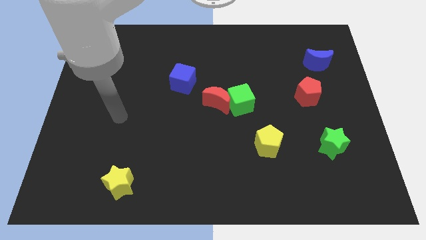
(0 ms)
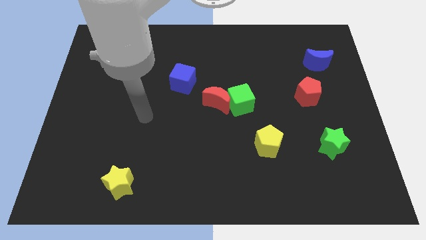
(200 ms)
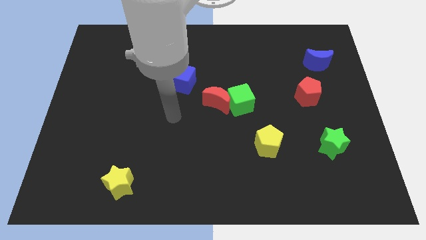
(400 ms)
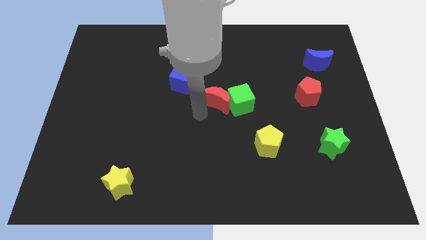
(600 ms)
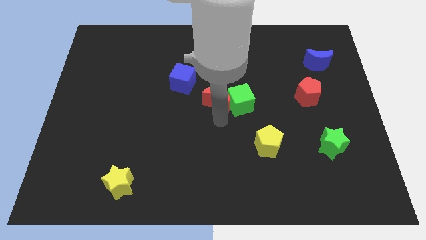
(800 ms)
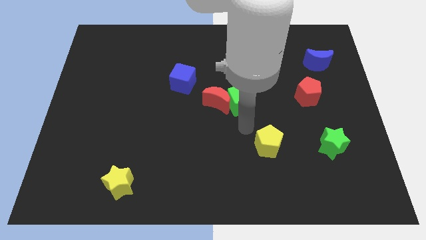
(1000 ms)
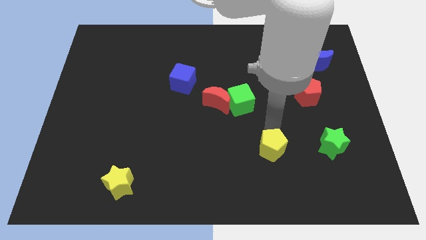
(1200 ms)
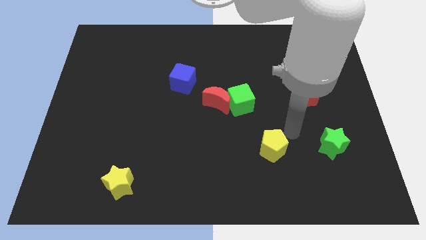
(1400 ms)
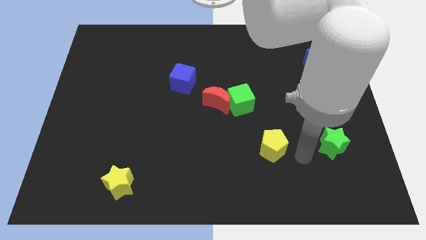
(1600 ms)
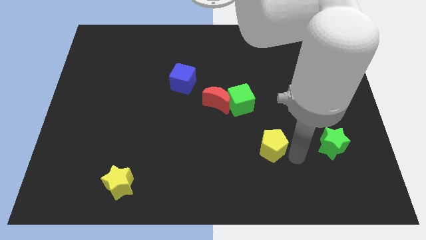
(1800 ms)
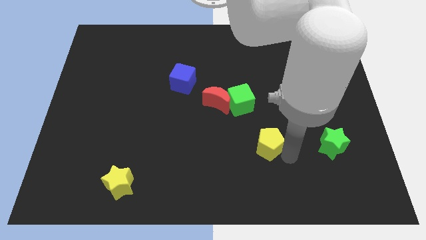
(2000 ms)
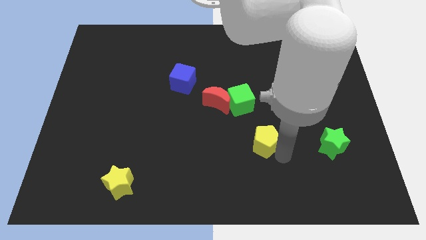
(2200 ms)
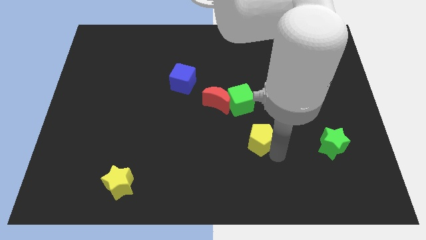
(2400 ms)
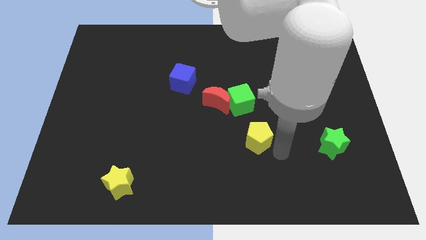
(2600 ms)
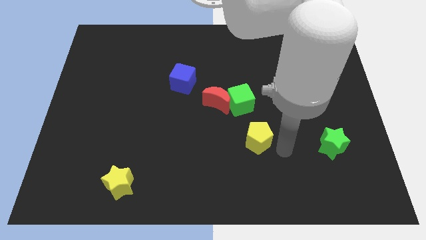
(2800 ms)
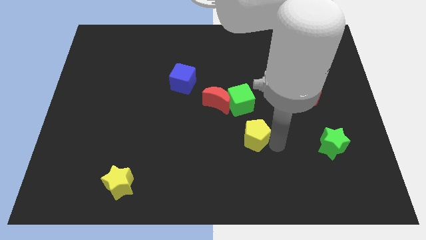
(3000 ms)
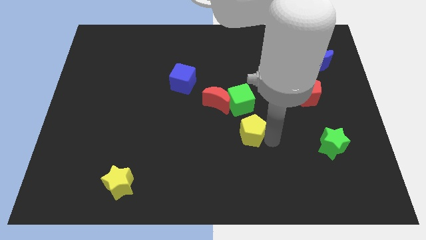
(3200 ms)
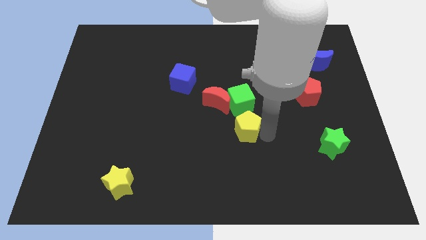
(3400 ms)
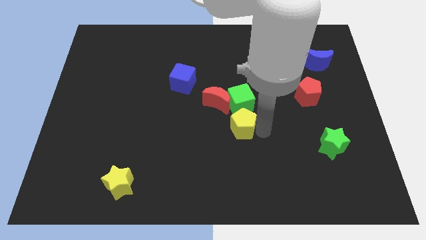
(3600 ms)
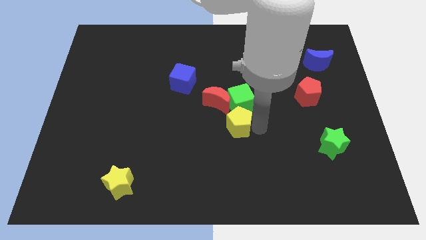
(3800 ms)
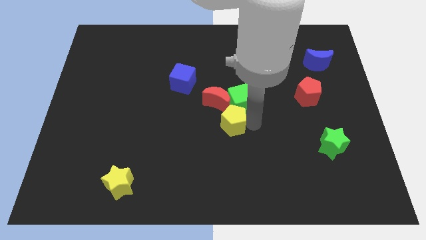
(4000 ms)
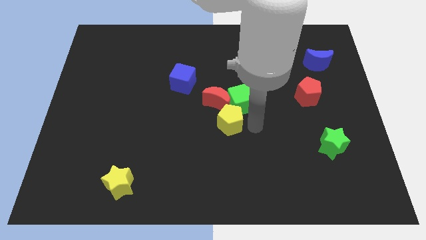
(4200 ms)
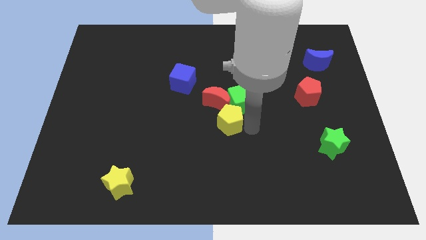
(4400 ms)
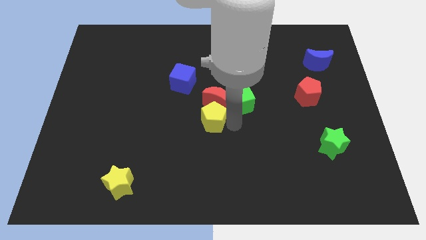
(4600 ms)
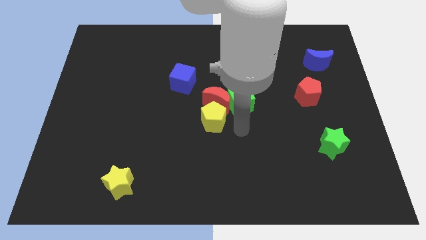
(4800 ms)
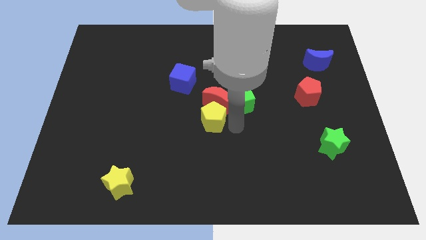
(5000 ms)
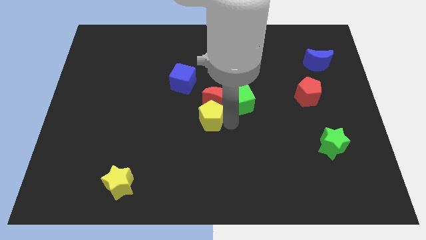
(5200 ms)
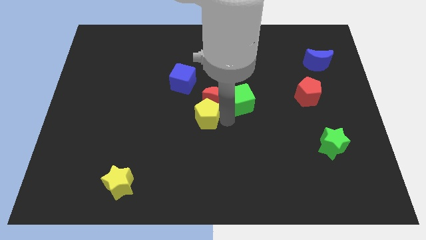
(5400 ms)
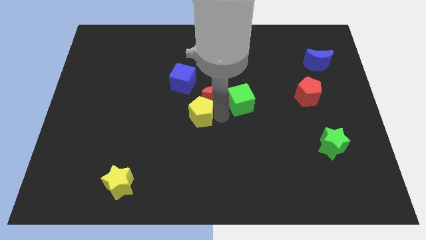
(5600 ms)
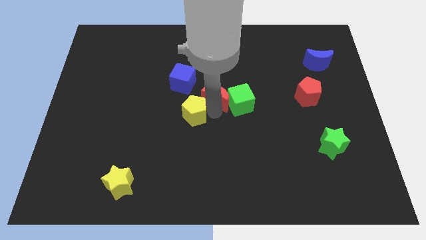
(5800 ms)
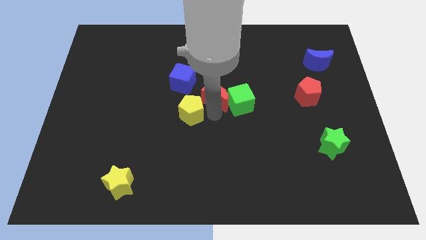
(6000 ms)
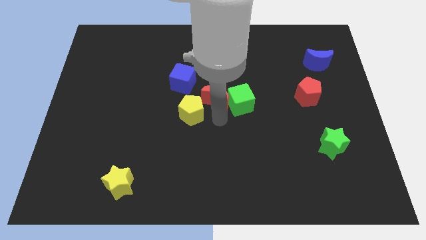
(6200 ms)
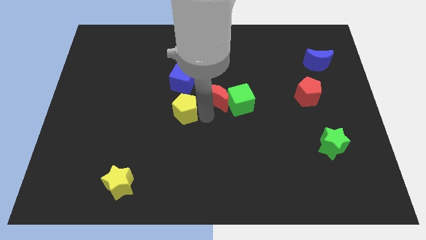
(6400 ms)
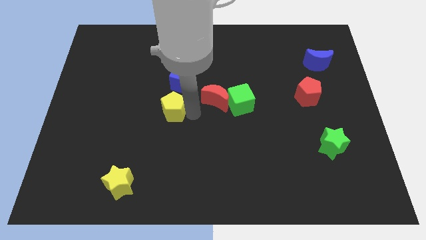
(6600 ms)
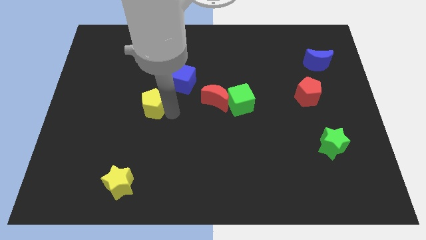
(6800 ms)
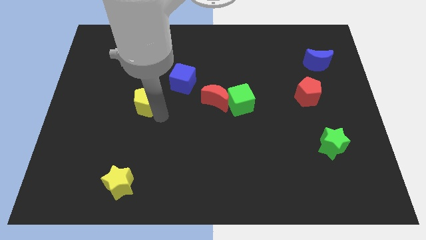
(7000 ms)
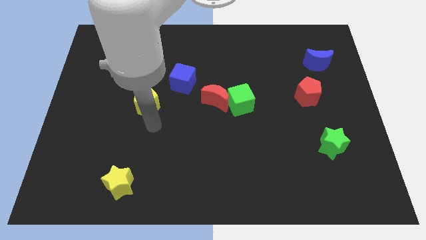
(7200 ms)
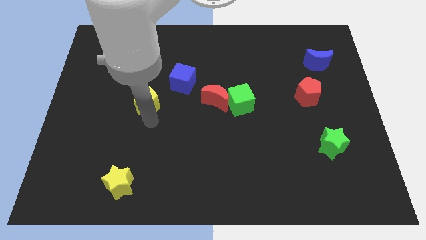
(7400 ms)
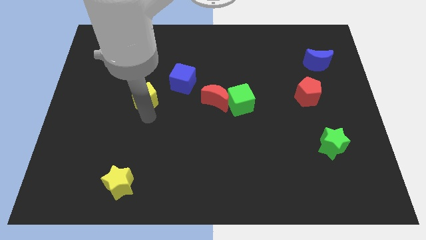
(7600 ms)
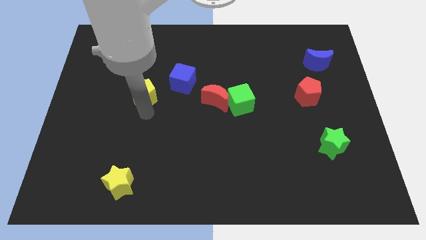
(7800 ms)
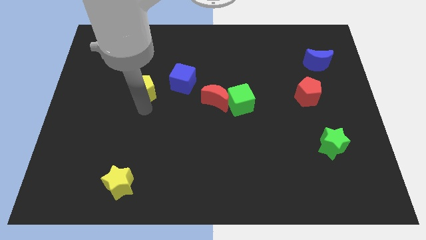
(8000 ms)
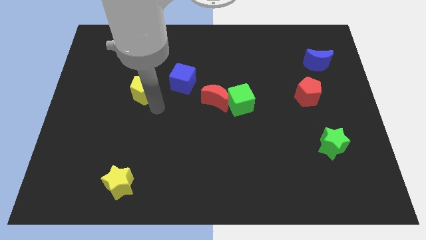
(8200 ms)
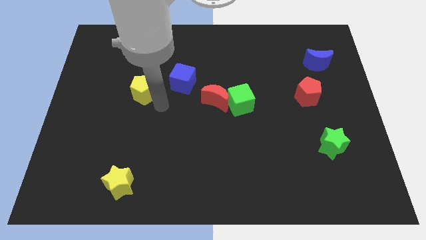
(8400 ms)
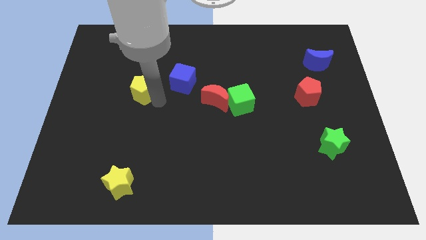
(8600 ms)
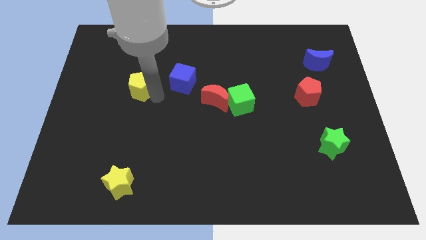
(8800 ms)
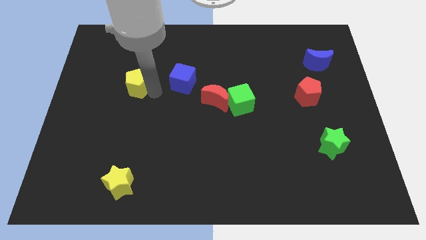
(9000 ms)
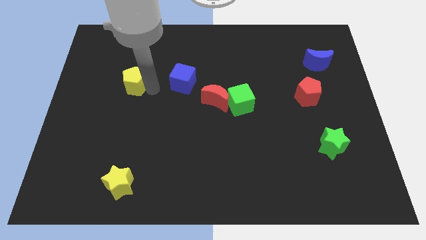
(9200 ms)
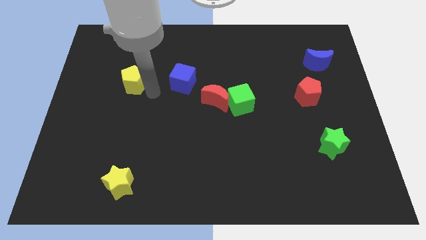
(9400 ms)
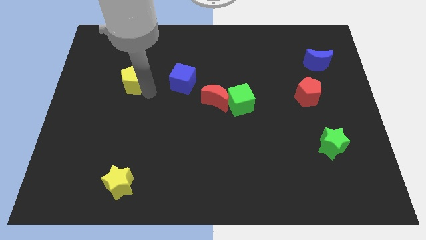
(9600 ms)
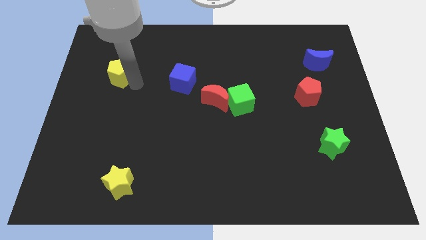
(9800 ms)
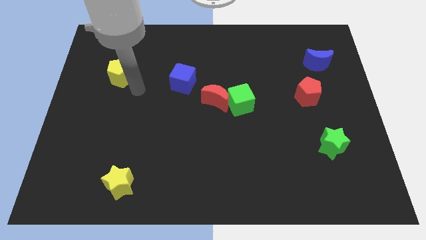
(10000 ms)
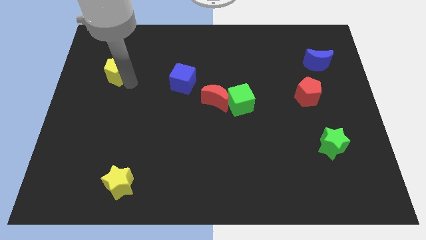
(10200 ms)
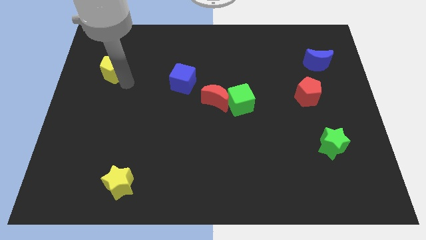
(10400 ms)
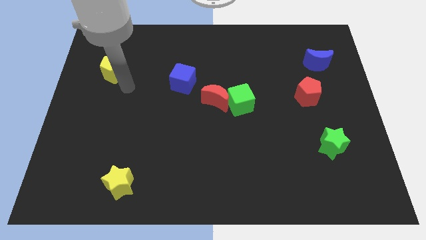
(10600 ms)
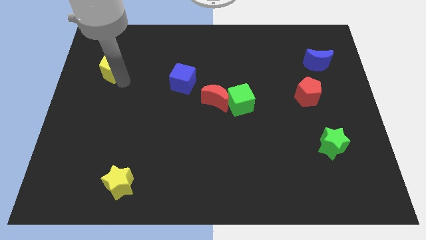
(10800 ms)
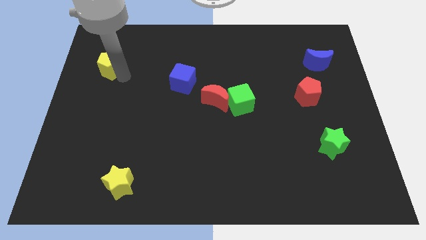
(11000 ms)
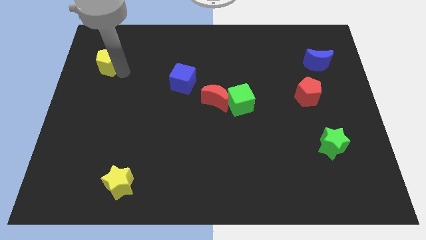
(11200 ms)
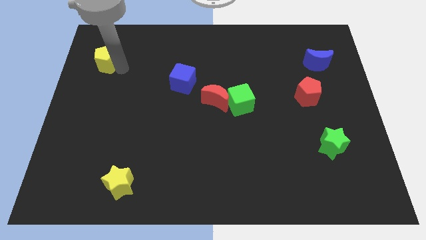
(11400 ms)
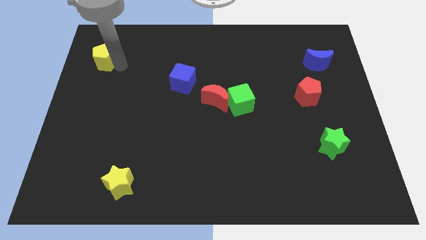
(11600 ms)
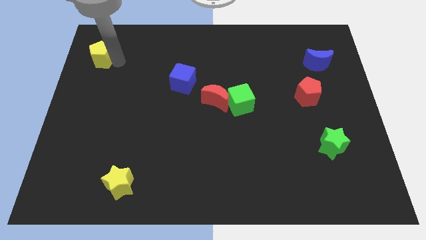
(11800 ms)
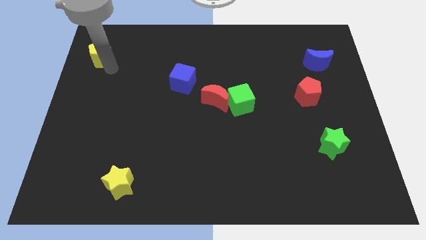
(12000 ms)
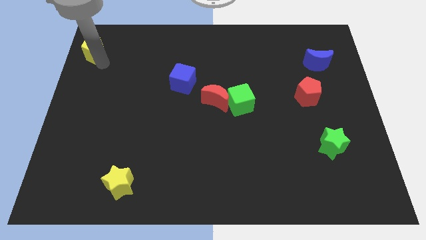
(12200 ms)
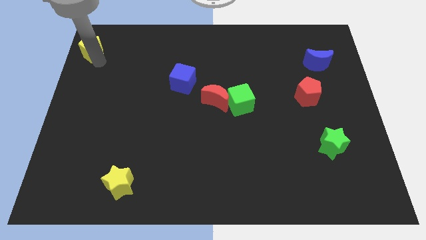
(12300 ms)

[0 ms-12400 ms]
put the yellow pentagon to the top left corner

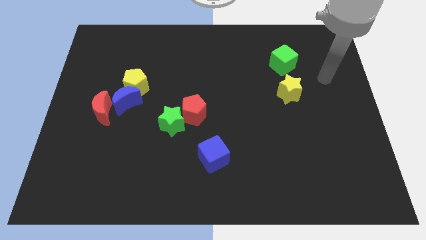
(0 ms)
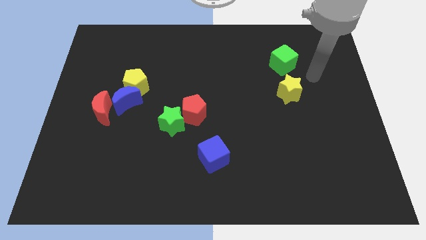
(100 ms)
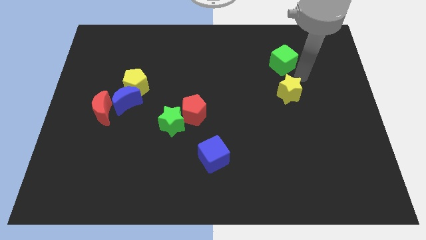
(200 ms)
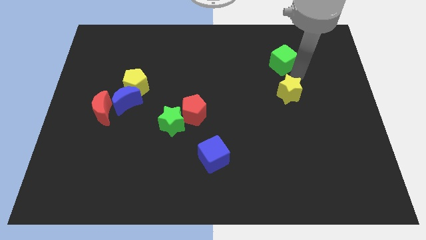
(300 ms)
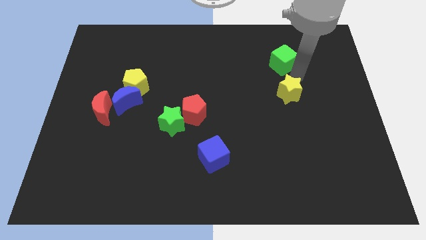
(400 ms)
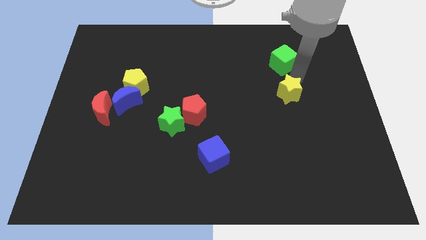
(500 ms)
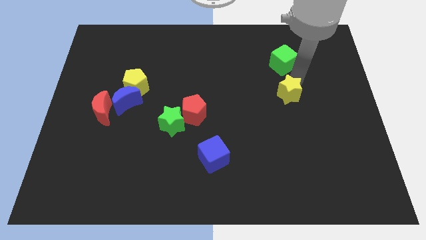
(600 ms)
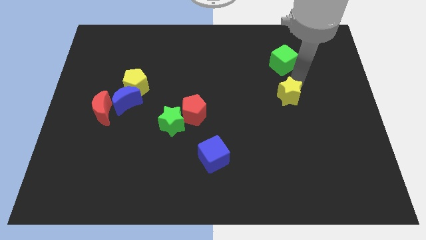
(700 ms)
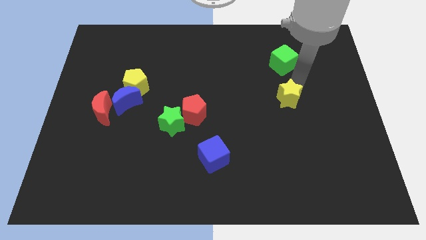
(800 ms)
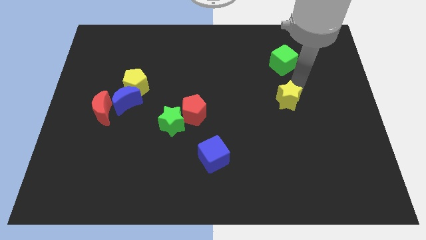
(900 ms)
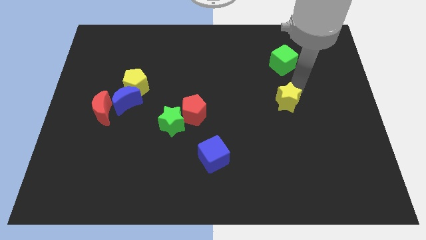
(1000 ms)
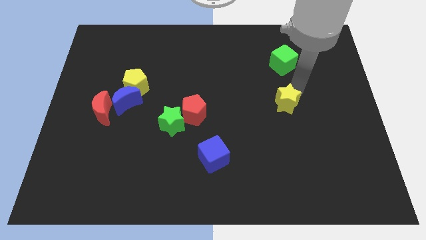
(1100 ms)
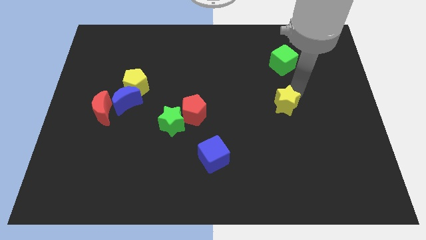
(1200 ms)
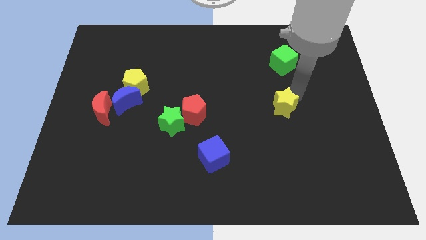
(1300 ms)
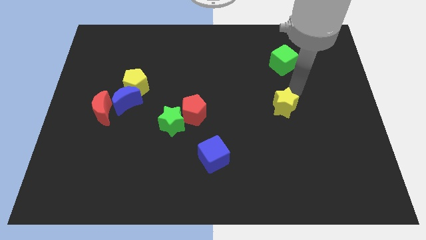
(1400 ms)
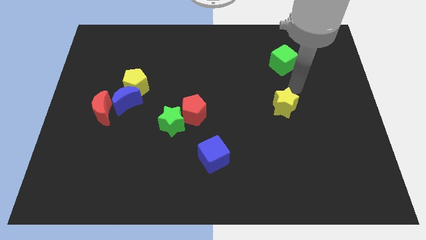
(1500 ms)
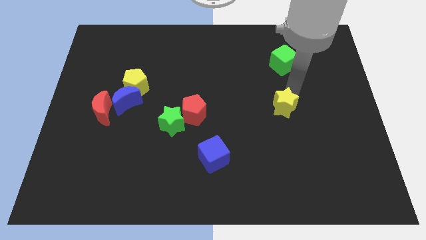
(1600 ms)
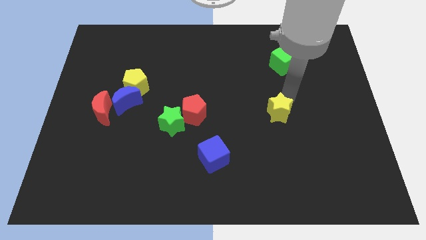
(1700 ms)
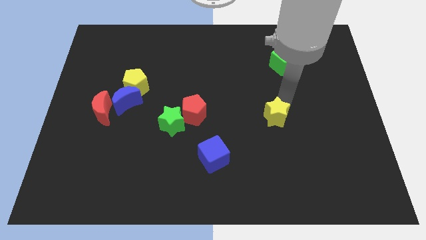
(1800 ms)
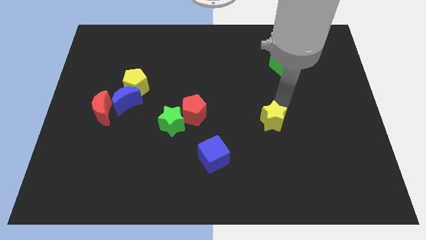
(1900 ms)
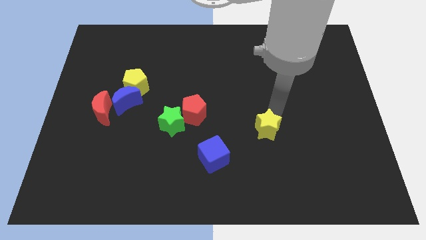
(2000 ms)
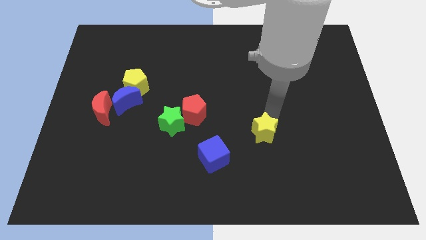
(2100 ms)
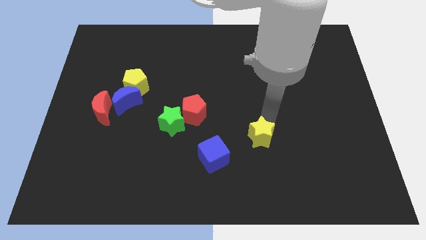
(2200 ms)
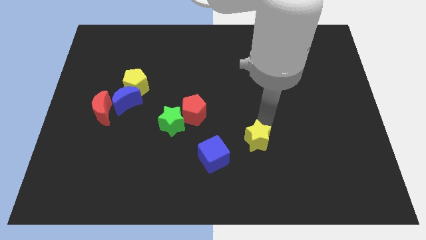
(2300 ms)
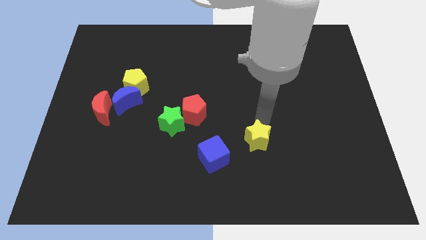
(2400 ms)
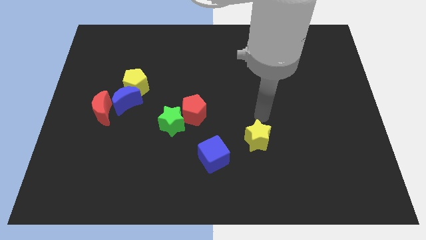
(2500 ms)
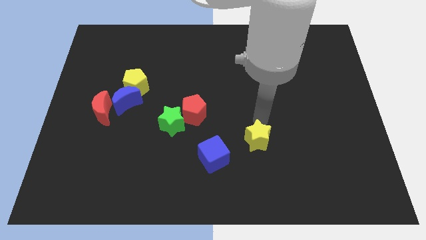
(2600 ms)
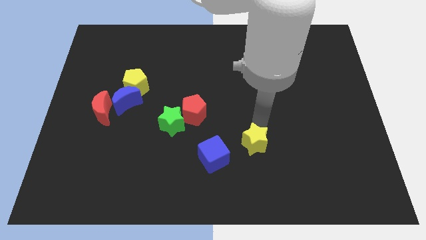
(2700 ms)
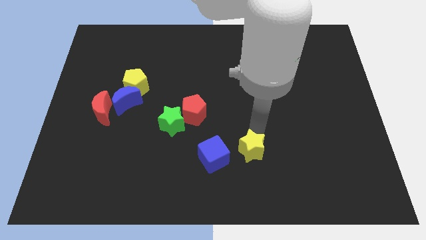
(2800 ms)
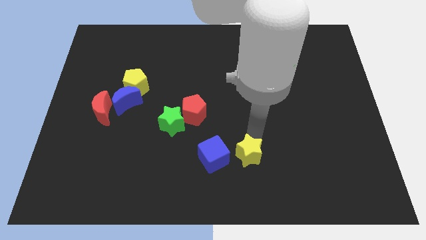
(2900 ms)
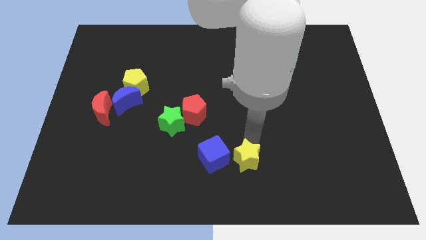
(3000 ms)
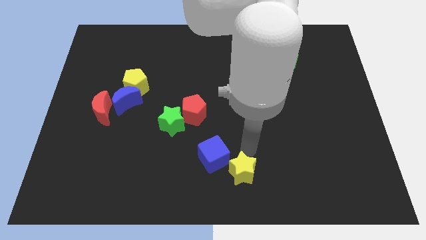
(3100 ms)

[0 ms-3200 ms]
slide the yellow star to the bottom side
